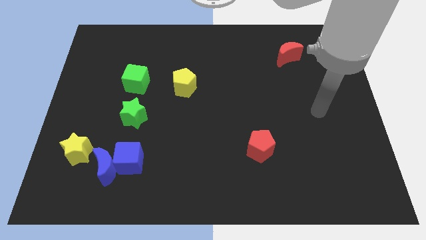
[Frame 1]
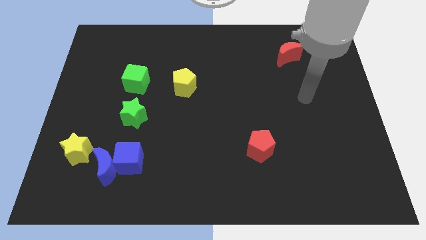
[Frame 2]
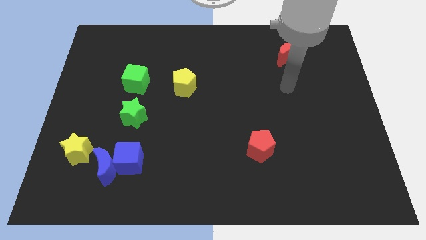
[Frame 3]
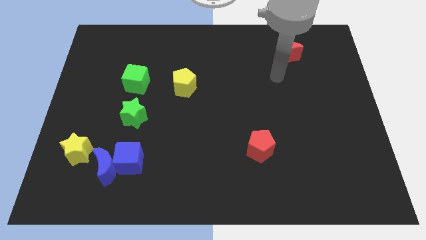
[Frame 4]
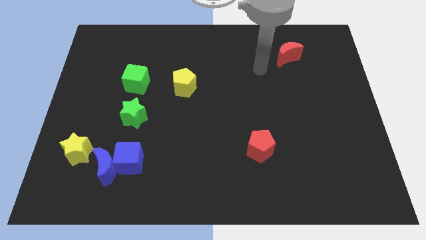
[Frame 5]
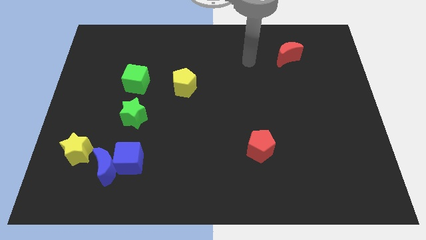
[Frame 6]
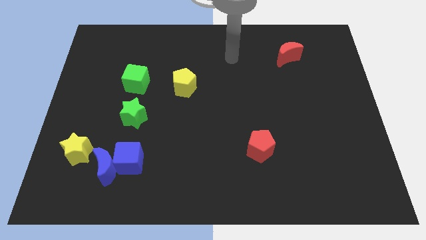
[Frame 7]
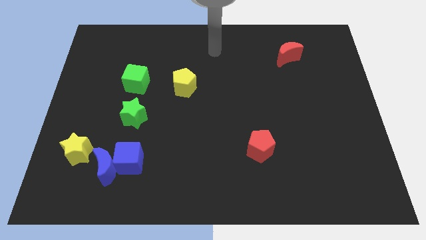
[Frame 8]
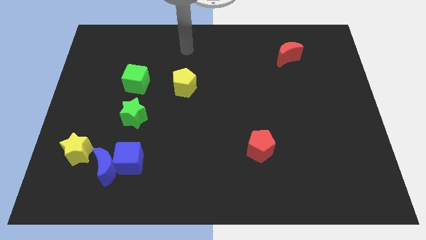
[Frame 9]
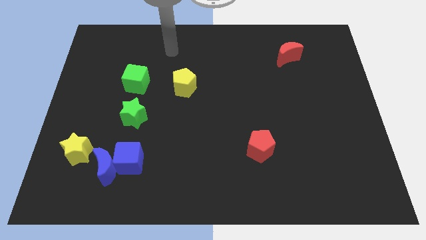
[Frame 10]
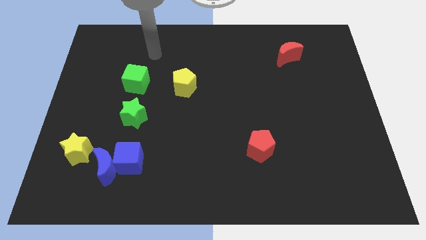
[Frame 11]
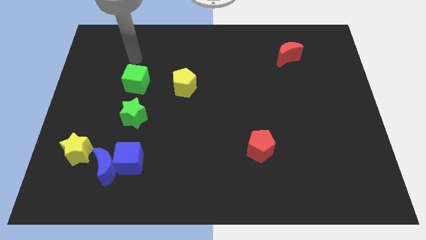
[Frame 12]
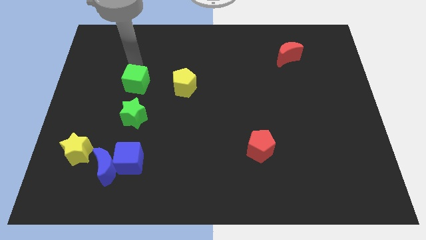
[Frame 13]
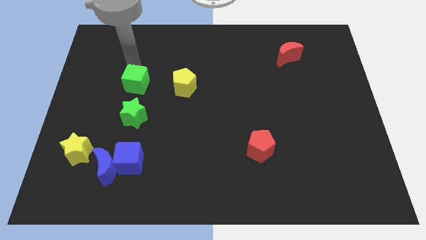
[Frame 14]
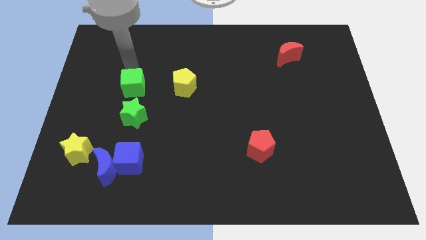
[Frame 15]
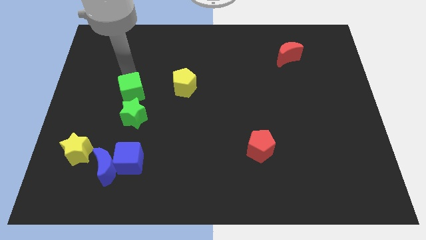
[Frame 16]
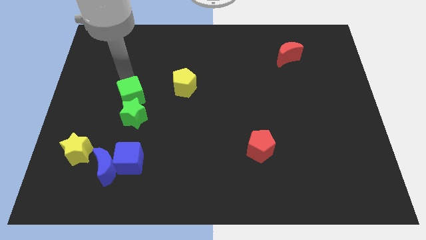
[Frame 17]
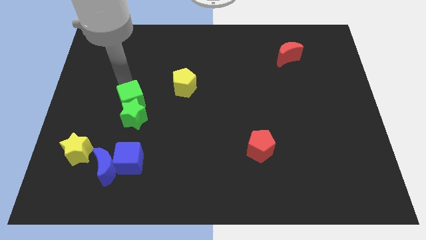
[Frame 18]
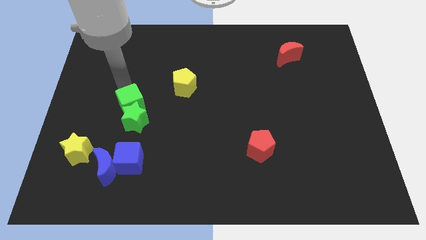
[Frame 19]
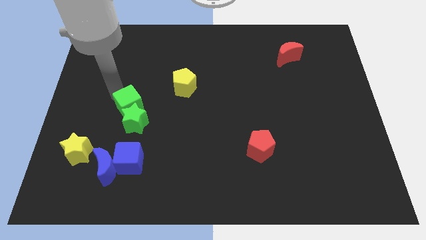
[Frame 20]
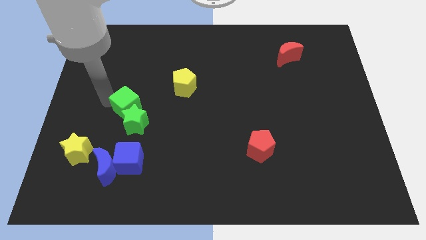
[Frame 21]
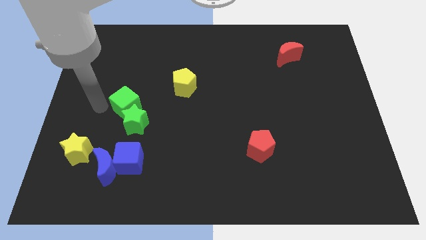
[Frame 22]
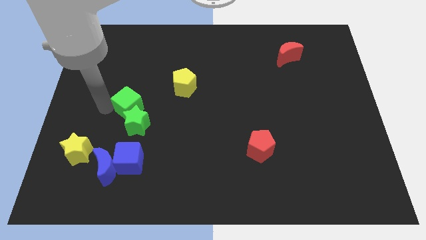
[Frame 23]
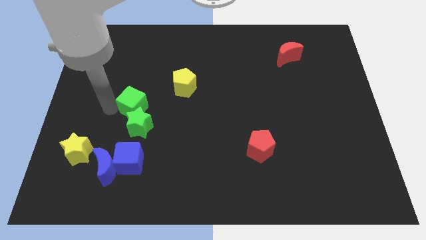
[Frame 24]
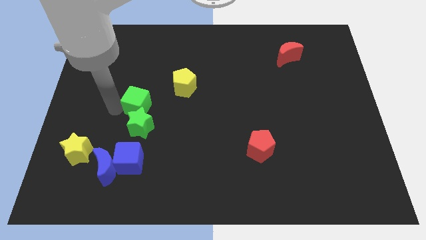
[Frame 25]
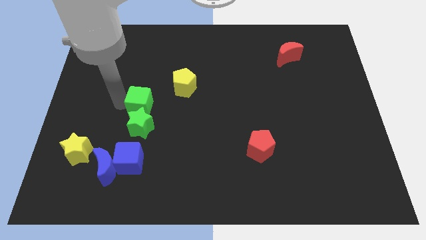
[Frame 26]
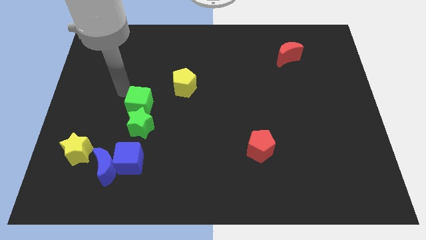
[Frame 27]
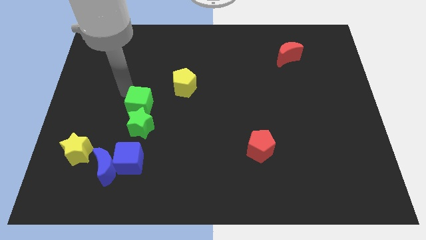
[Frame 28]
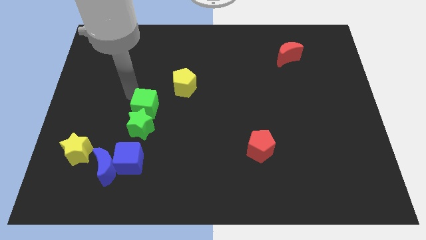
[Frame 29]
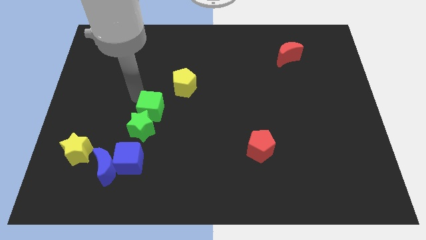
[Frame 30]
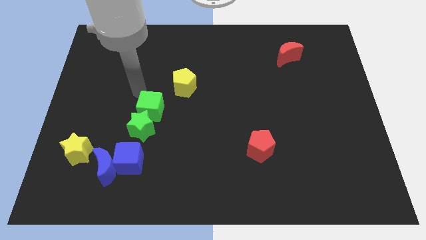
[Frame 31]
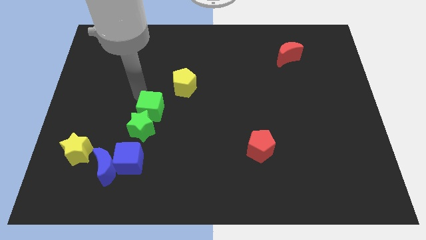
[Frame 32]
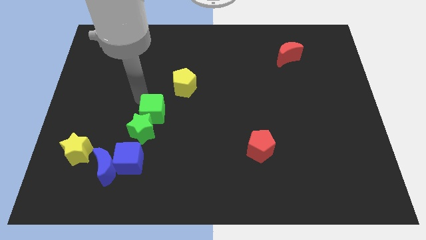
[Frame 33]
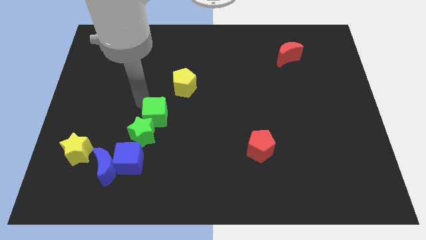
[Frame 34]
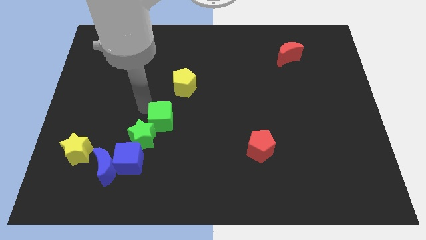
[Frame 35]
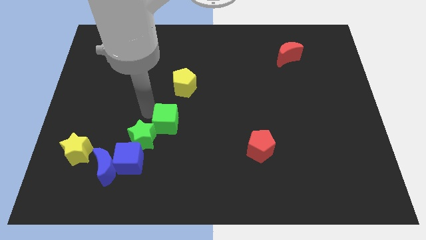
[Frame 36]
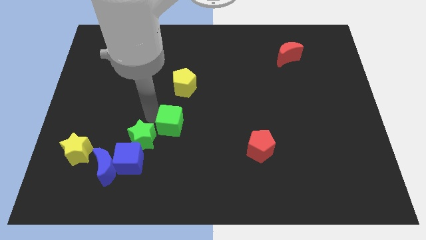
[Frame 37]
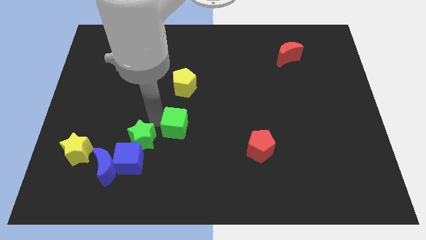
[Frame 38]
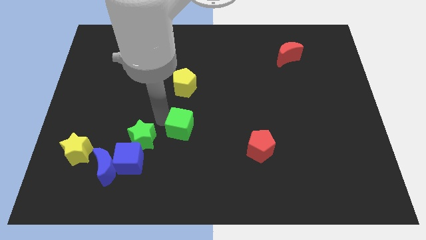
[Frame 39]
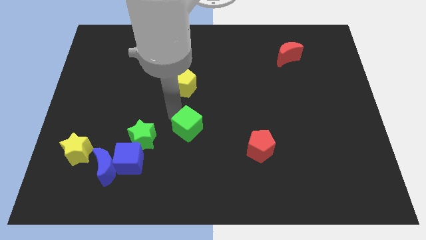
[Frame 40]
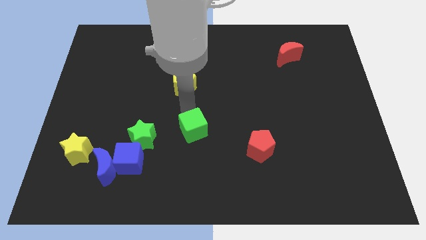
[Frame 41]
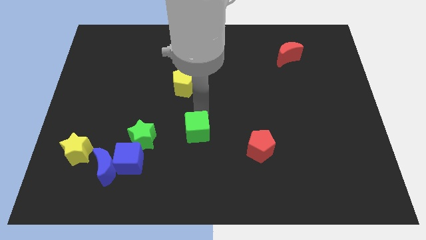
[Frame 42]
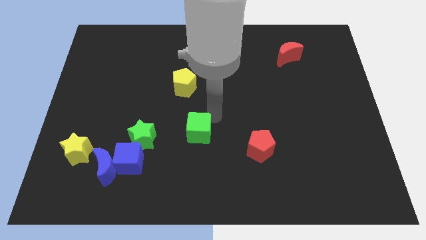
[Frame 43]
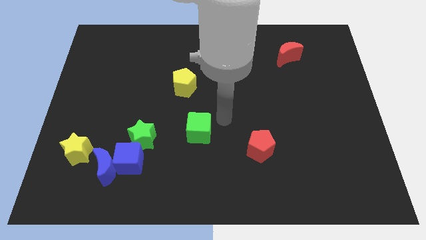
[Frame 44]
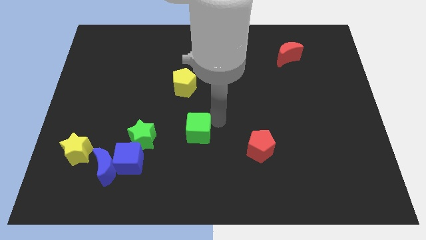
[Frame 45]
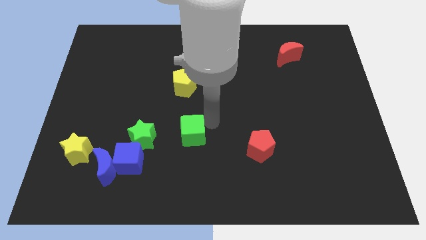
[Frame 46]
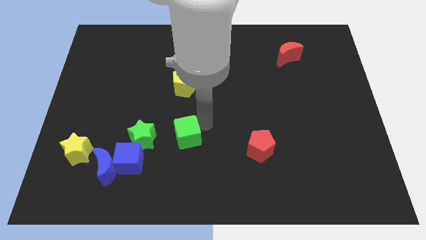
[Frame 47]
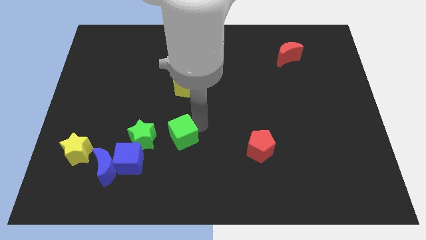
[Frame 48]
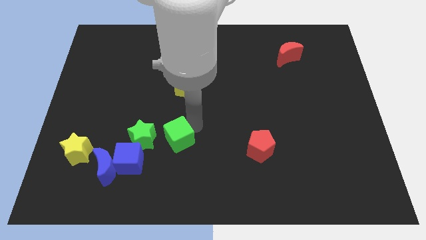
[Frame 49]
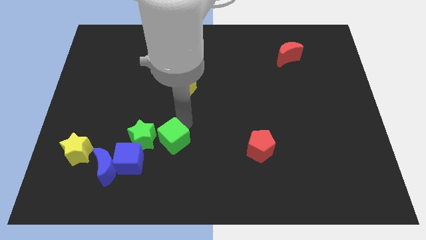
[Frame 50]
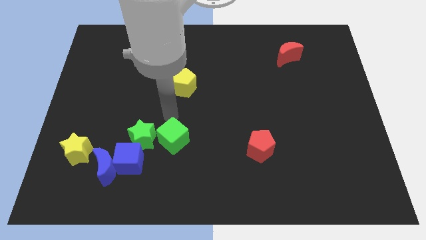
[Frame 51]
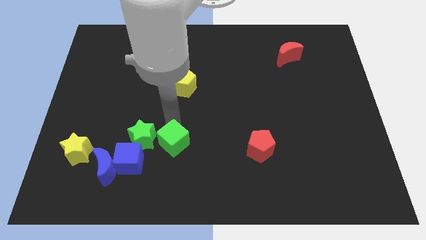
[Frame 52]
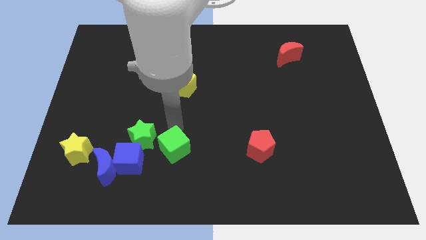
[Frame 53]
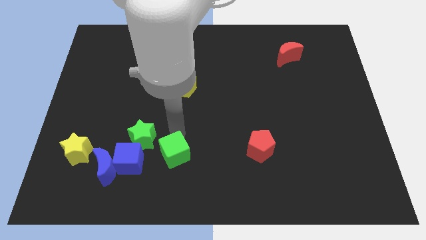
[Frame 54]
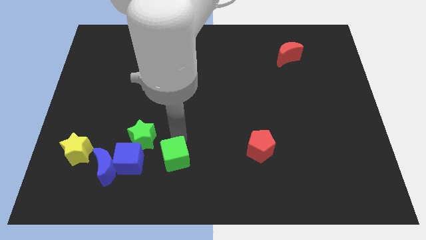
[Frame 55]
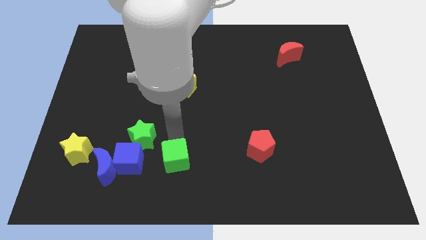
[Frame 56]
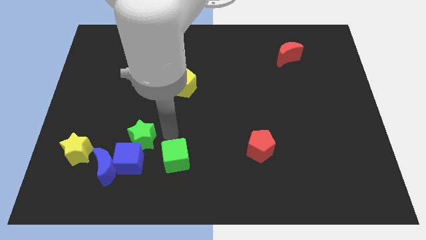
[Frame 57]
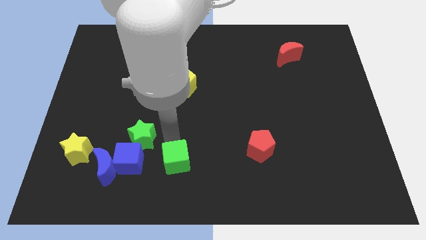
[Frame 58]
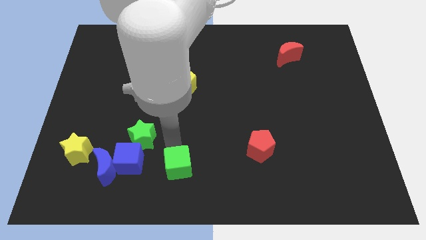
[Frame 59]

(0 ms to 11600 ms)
push the green cube to the bottom side

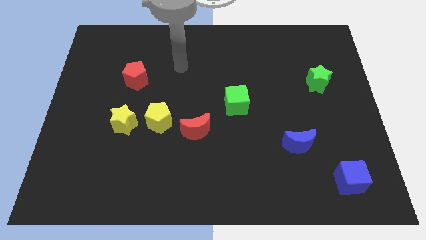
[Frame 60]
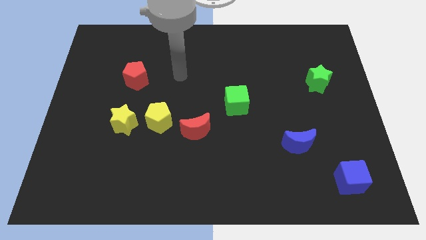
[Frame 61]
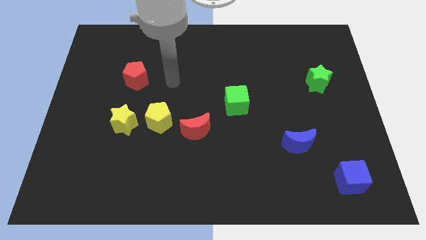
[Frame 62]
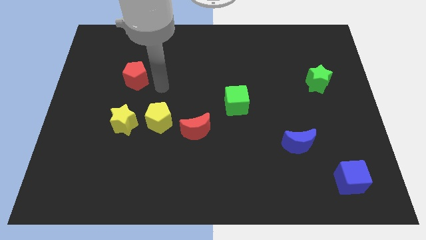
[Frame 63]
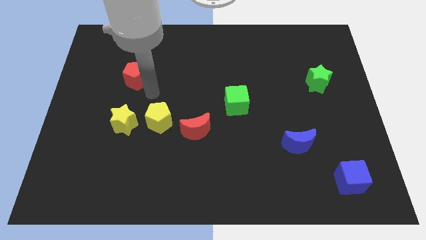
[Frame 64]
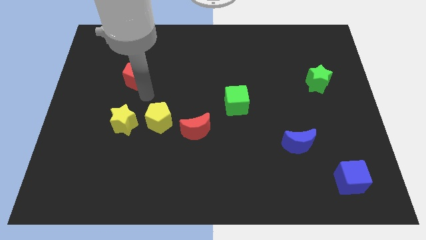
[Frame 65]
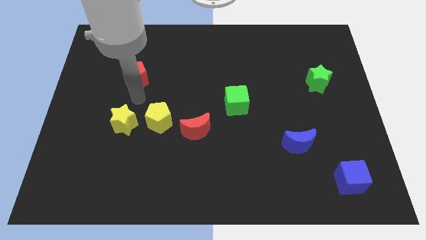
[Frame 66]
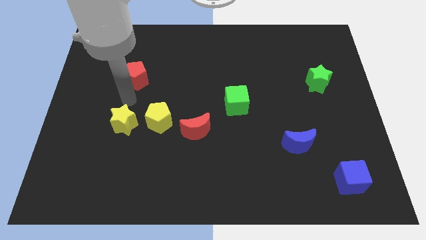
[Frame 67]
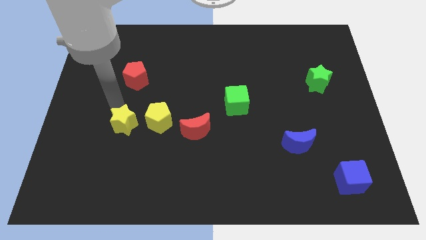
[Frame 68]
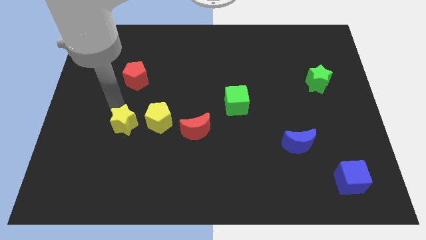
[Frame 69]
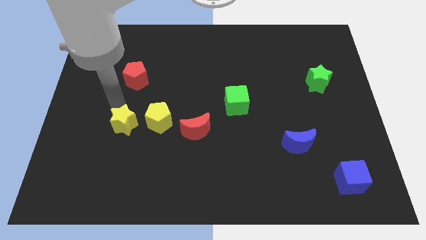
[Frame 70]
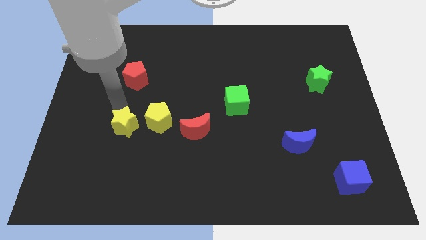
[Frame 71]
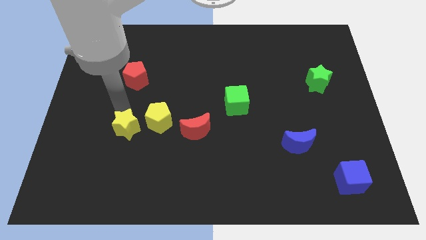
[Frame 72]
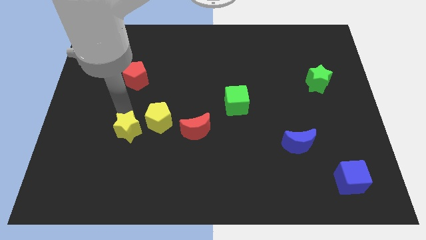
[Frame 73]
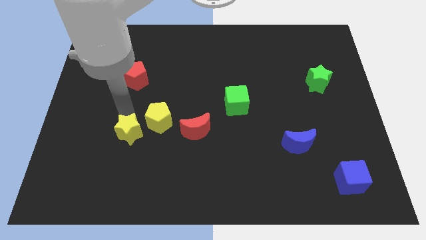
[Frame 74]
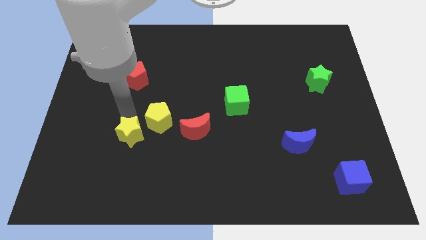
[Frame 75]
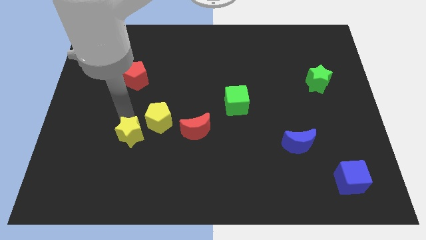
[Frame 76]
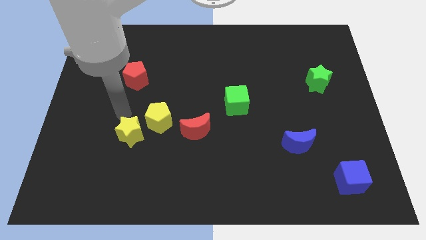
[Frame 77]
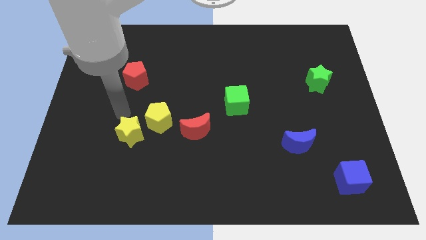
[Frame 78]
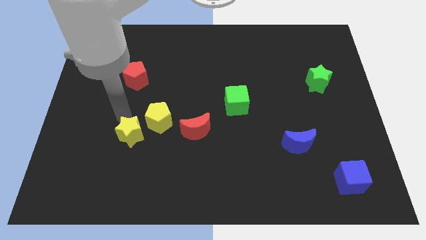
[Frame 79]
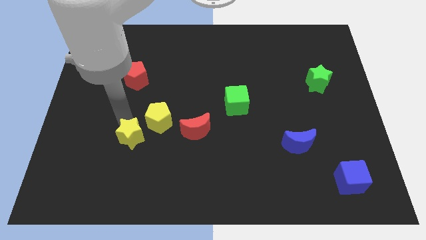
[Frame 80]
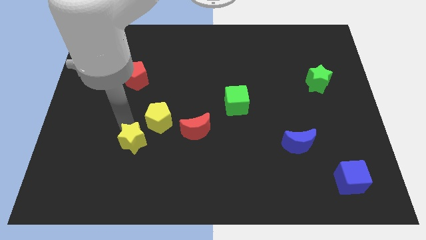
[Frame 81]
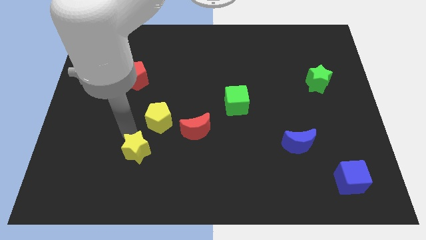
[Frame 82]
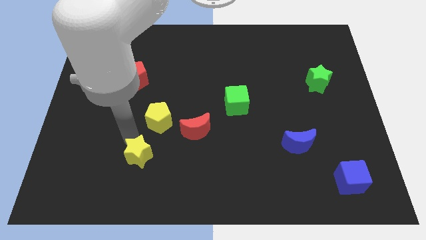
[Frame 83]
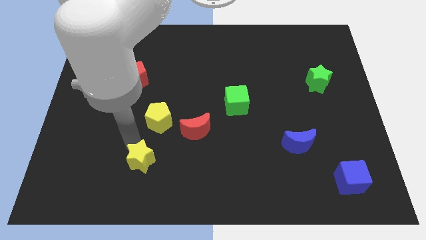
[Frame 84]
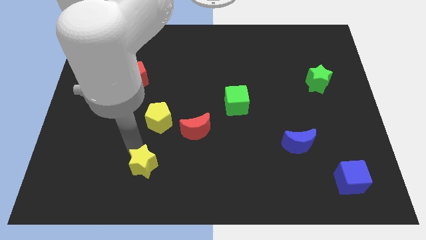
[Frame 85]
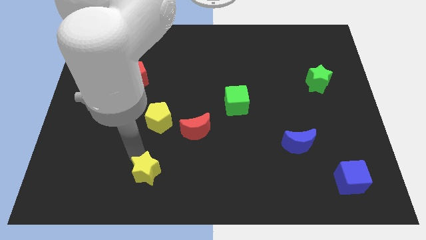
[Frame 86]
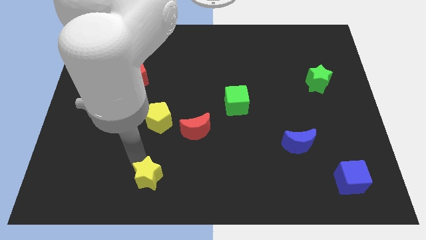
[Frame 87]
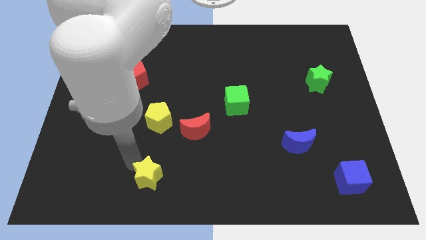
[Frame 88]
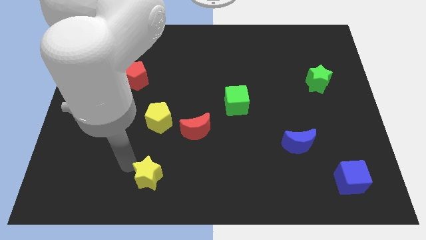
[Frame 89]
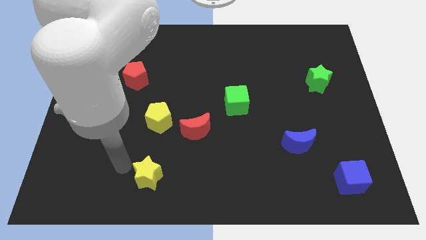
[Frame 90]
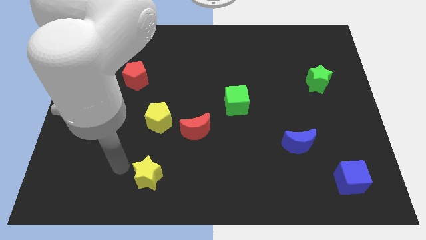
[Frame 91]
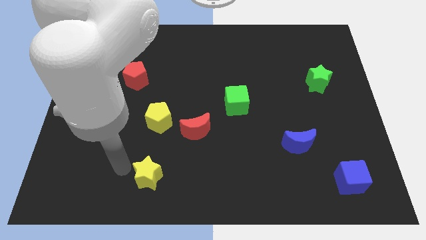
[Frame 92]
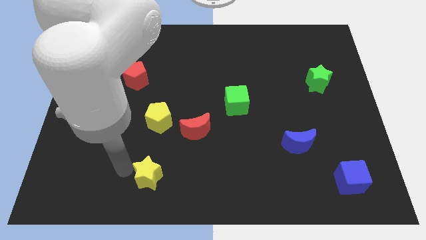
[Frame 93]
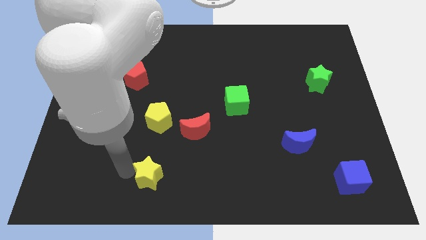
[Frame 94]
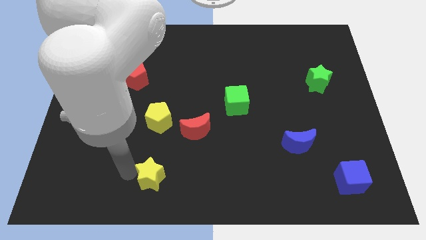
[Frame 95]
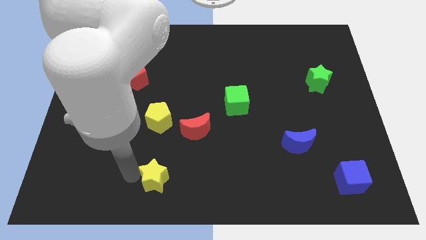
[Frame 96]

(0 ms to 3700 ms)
put the yellow star to the bottom side
